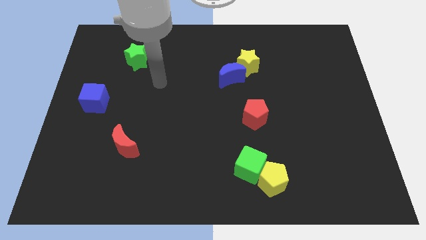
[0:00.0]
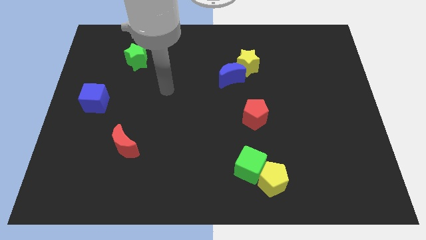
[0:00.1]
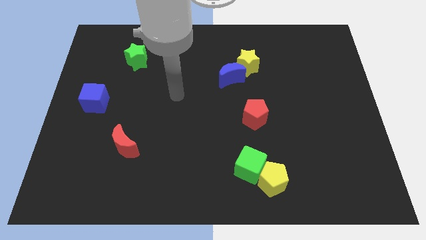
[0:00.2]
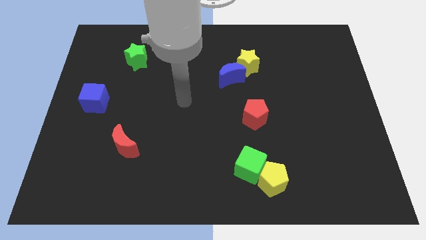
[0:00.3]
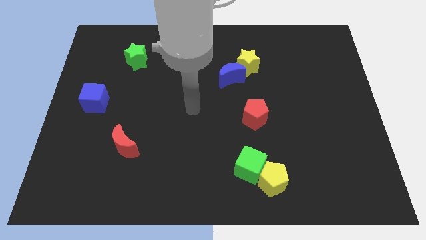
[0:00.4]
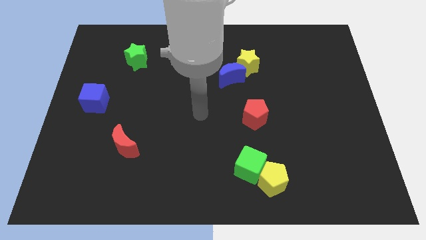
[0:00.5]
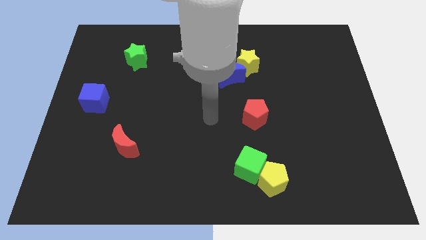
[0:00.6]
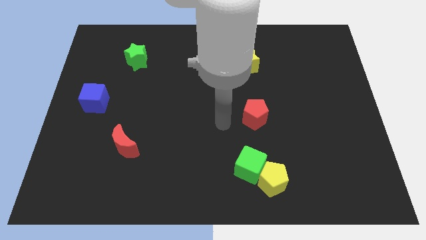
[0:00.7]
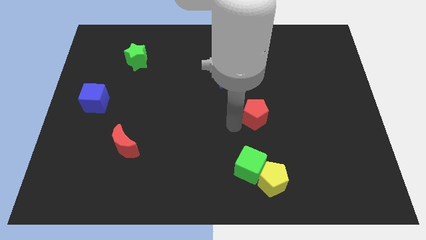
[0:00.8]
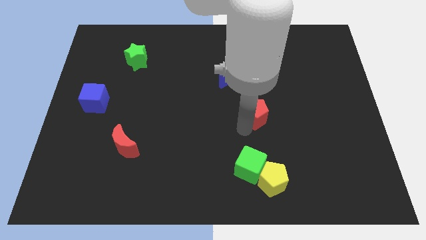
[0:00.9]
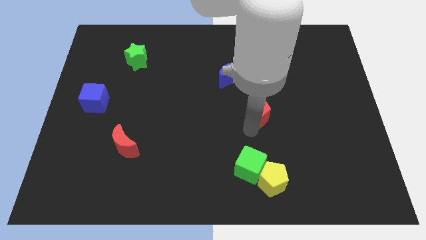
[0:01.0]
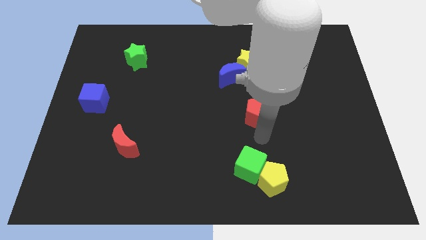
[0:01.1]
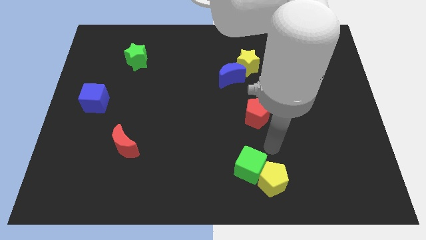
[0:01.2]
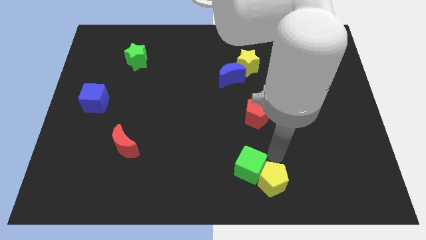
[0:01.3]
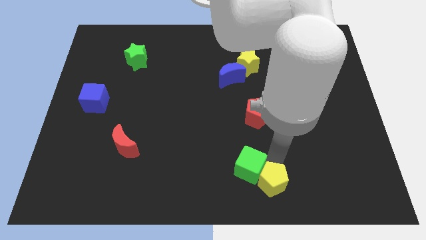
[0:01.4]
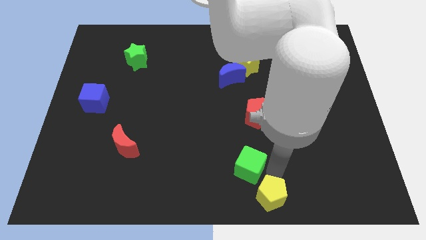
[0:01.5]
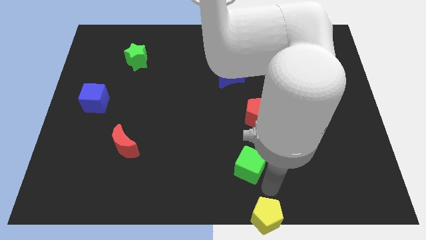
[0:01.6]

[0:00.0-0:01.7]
separate the green cube from the yellow pentagon

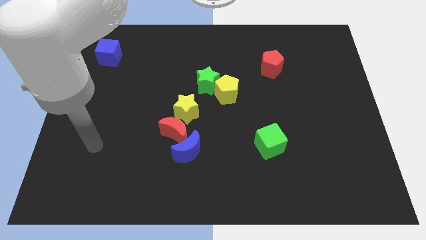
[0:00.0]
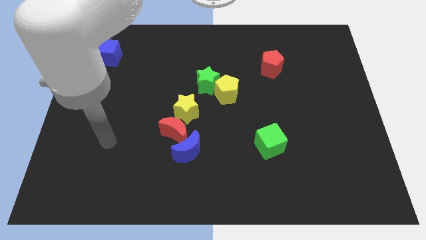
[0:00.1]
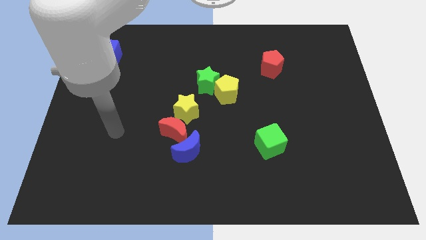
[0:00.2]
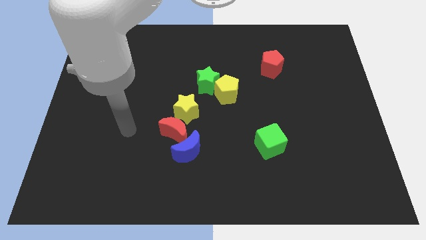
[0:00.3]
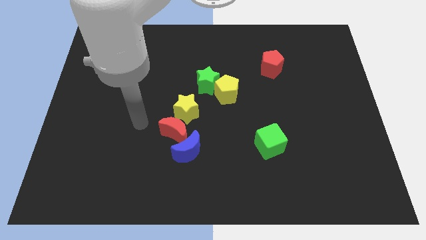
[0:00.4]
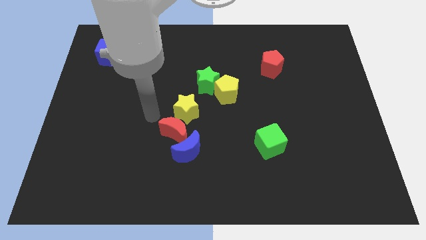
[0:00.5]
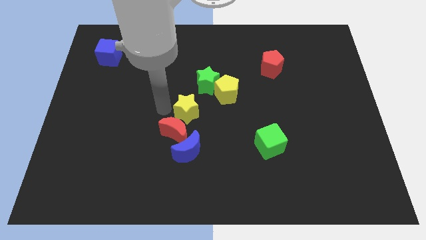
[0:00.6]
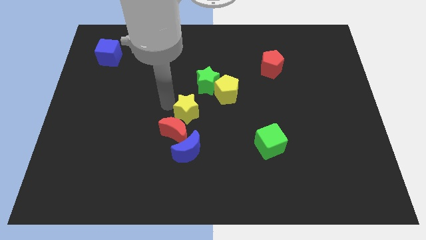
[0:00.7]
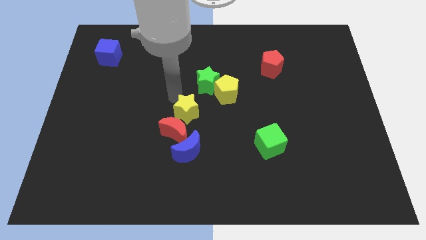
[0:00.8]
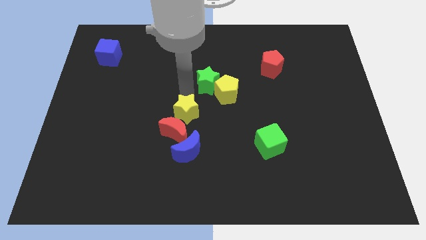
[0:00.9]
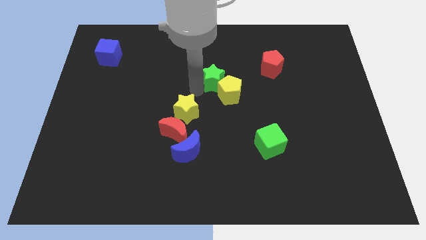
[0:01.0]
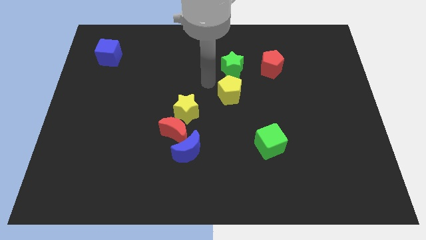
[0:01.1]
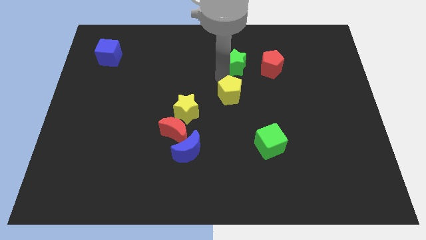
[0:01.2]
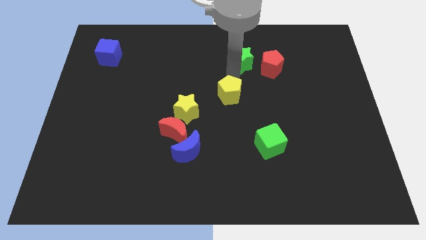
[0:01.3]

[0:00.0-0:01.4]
pull the yellow pentagon apart from the green star

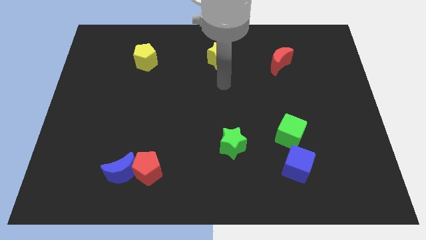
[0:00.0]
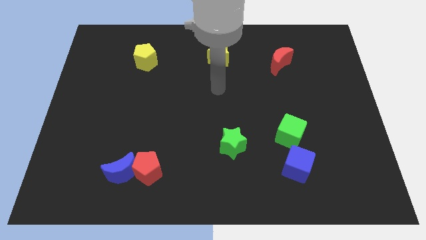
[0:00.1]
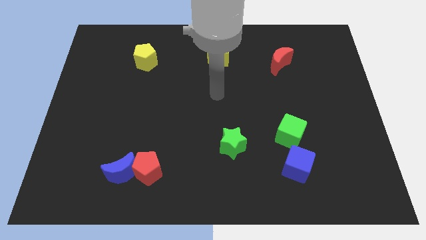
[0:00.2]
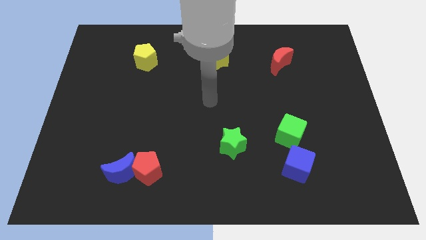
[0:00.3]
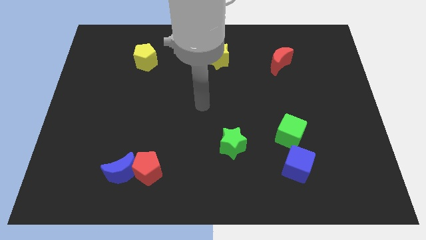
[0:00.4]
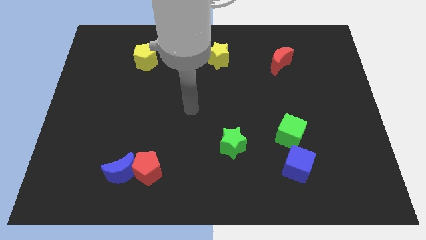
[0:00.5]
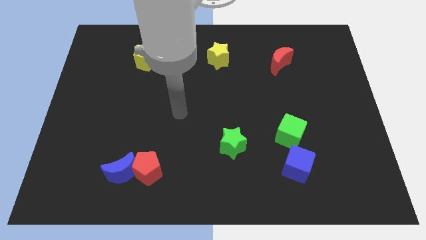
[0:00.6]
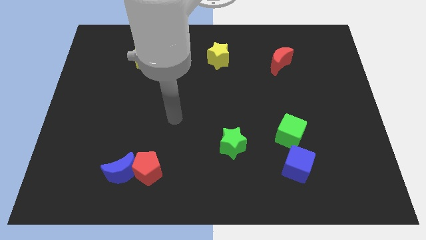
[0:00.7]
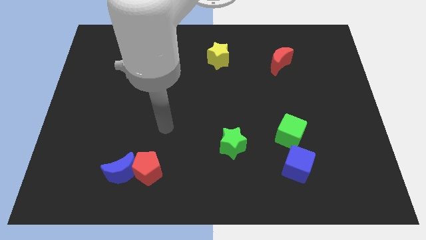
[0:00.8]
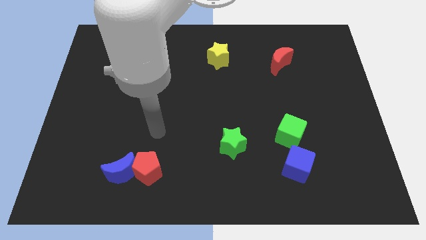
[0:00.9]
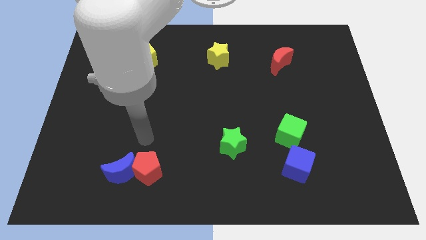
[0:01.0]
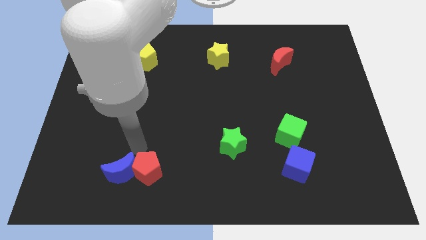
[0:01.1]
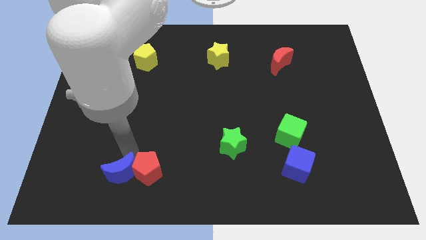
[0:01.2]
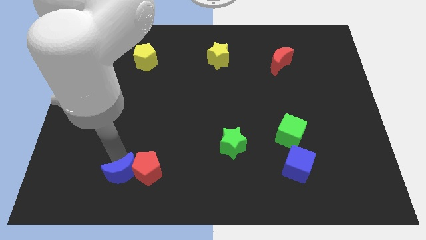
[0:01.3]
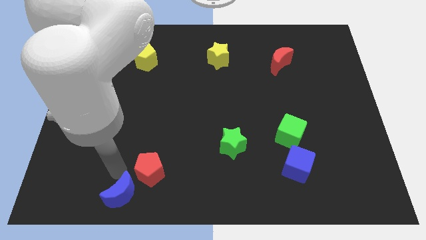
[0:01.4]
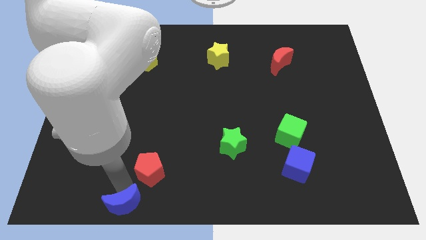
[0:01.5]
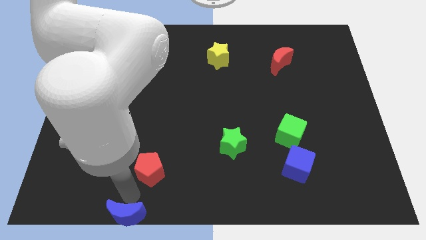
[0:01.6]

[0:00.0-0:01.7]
separate the red pentagon from the blue moon

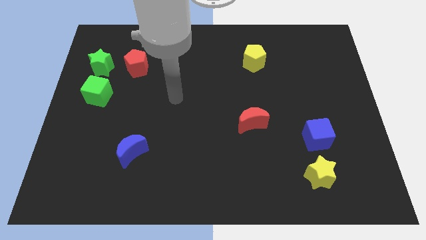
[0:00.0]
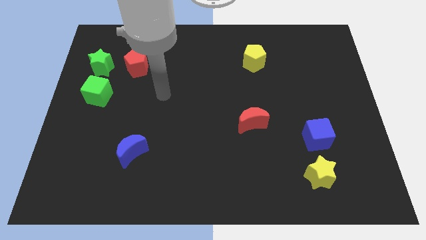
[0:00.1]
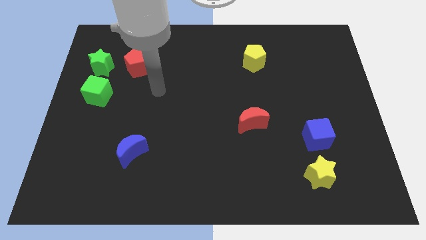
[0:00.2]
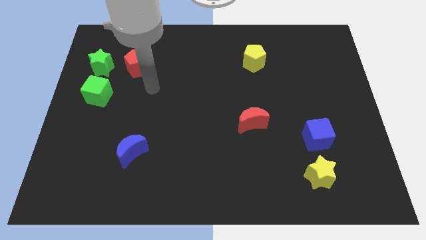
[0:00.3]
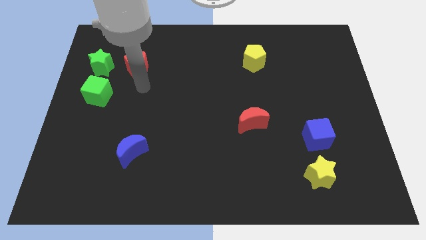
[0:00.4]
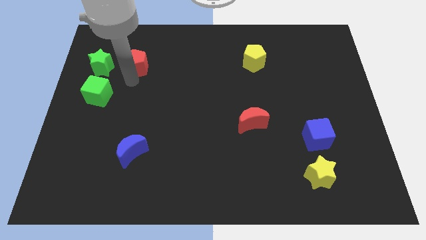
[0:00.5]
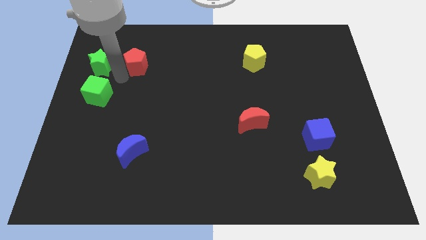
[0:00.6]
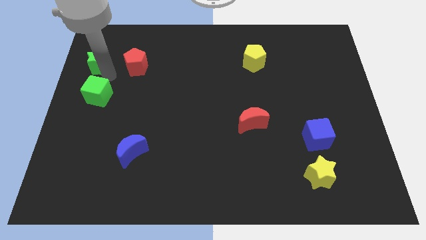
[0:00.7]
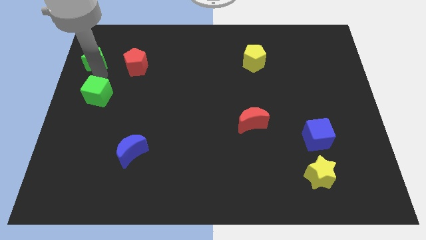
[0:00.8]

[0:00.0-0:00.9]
move the green cube away from the green star

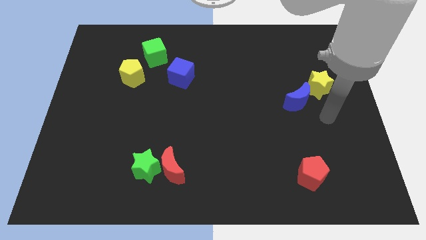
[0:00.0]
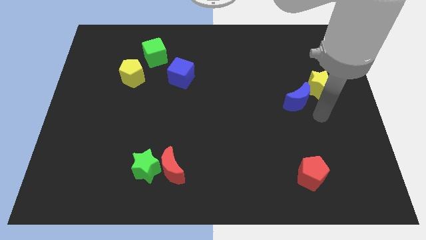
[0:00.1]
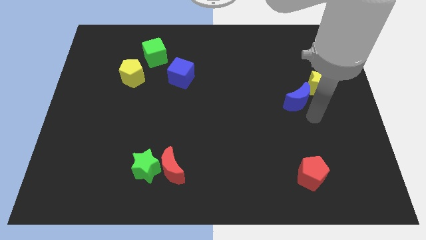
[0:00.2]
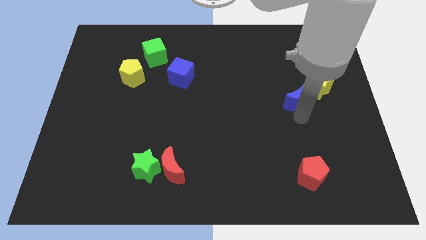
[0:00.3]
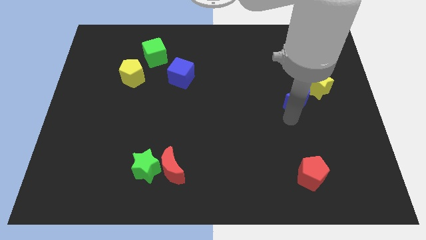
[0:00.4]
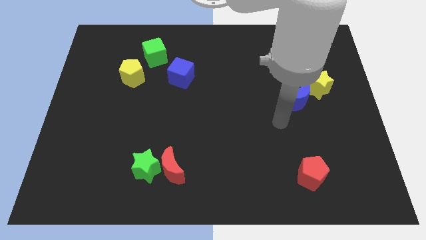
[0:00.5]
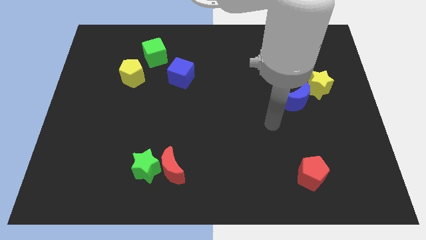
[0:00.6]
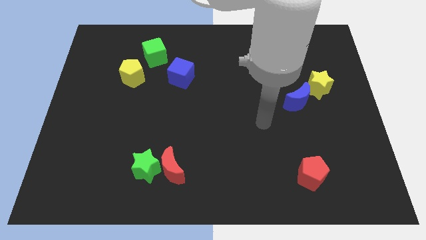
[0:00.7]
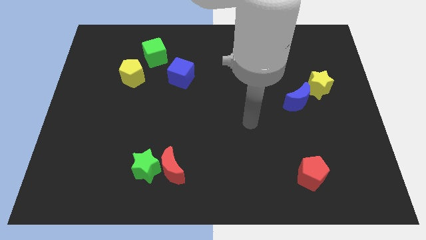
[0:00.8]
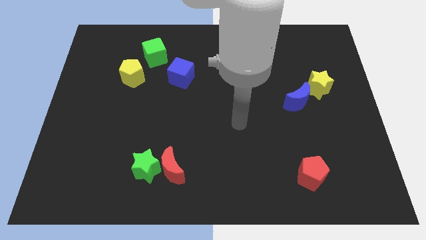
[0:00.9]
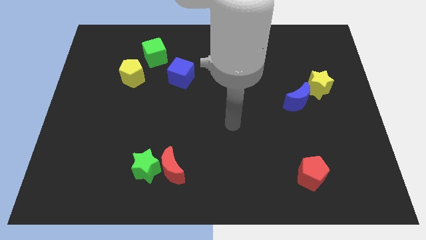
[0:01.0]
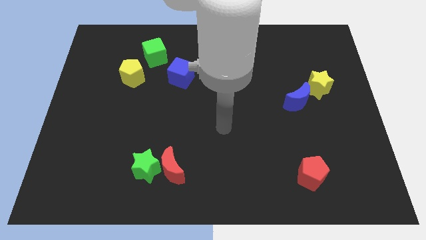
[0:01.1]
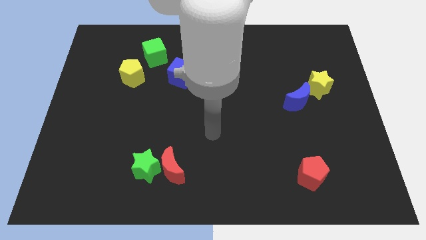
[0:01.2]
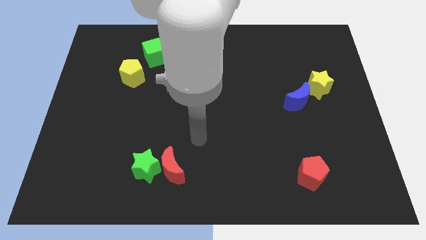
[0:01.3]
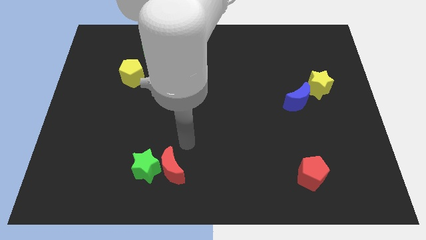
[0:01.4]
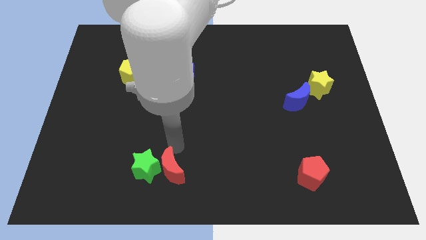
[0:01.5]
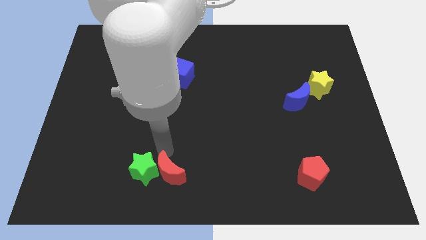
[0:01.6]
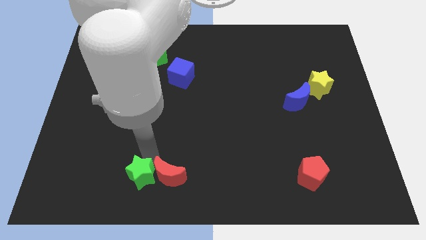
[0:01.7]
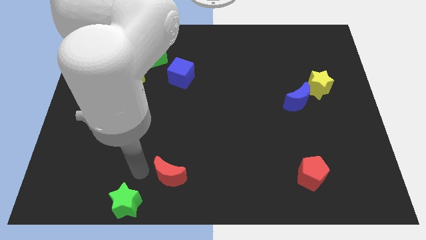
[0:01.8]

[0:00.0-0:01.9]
separate the red moon from the green star

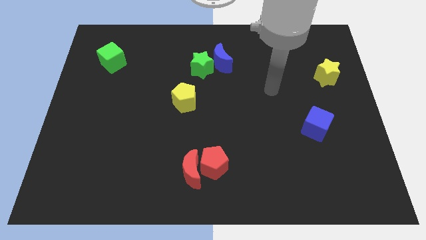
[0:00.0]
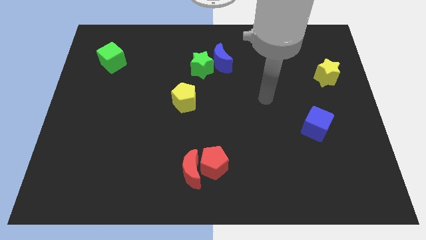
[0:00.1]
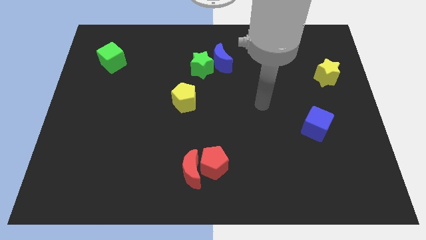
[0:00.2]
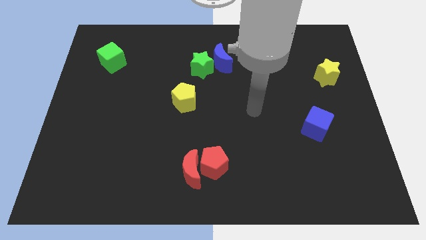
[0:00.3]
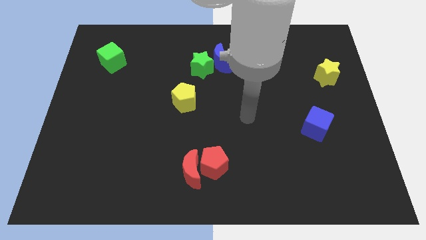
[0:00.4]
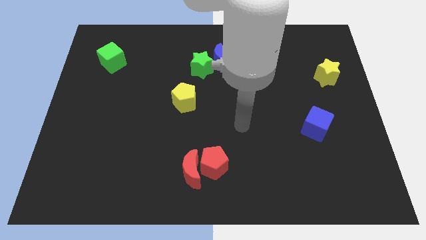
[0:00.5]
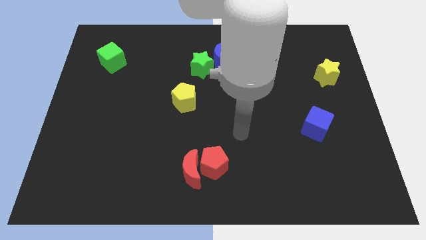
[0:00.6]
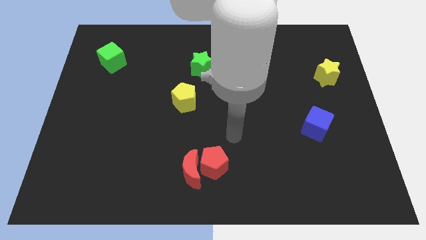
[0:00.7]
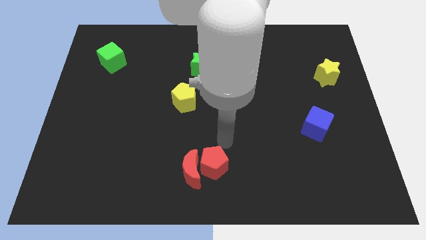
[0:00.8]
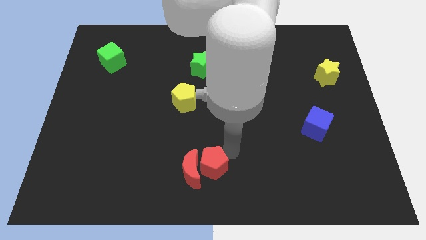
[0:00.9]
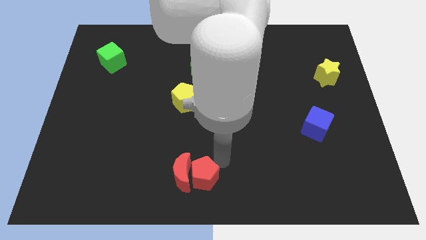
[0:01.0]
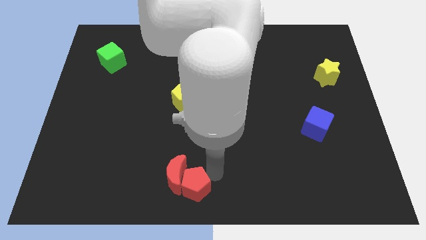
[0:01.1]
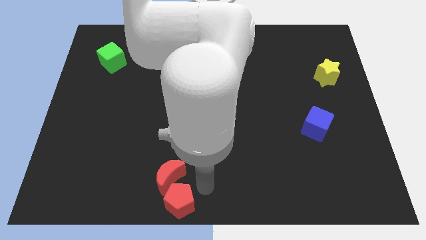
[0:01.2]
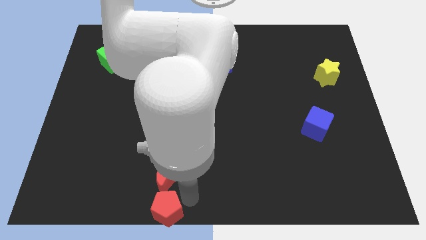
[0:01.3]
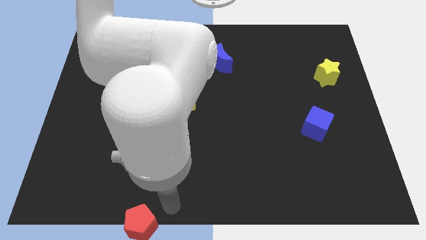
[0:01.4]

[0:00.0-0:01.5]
move the red moon away from the red pentagon
